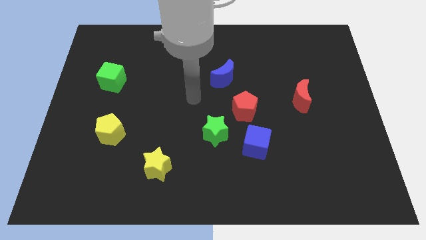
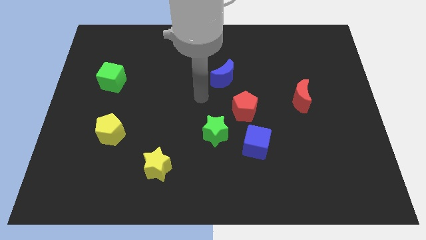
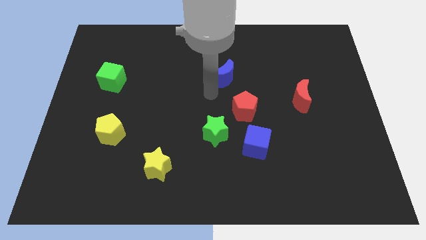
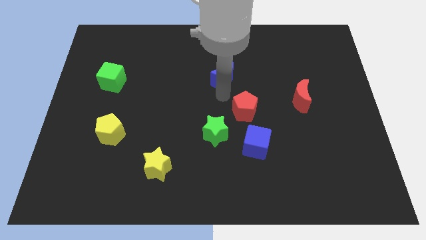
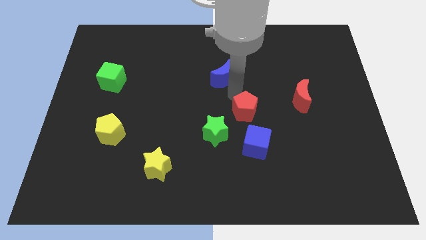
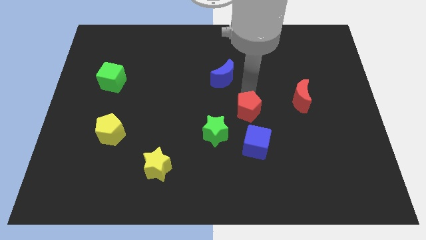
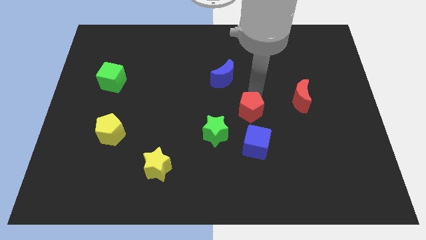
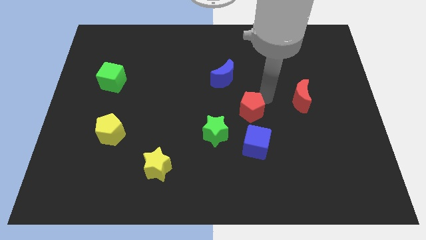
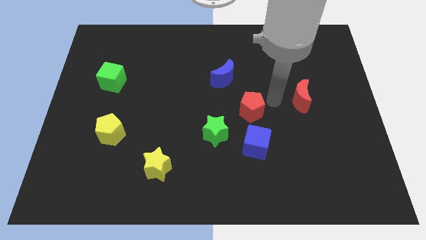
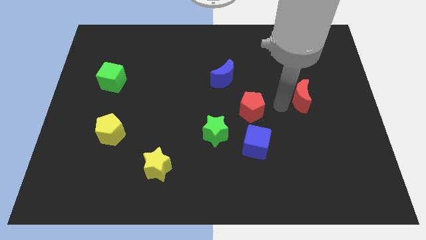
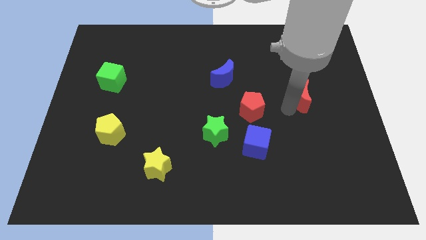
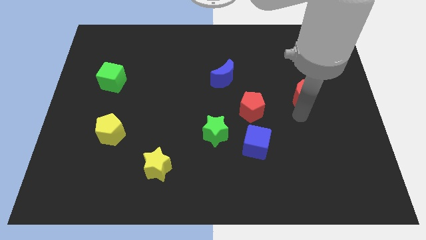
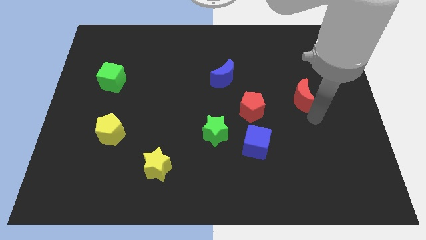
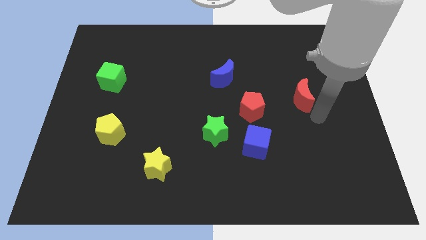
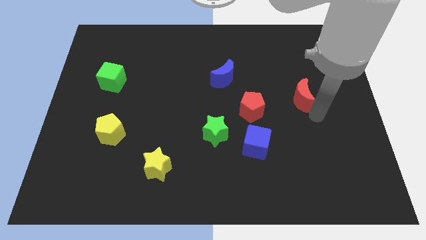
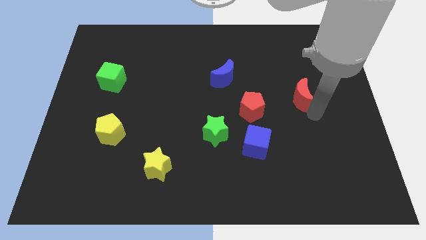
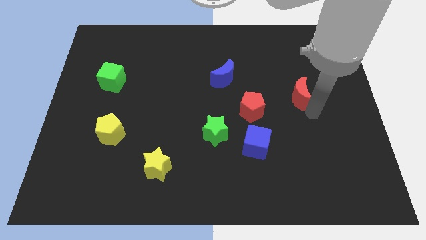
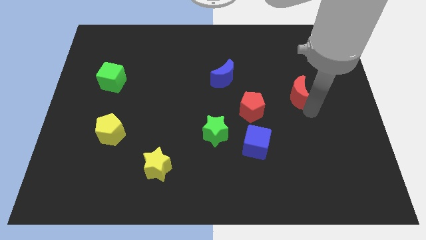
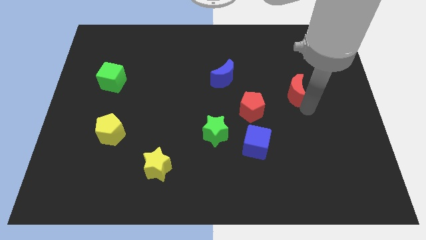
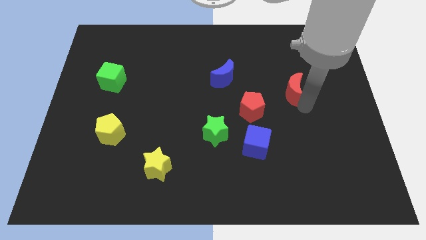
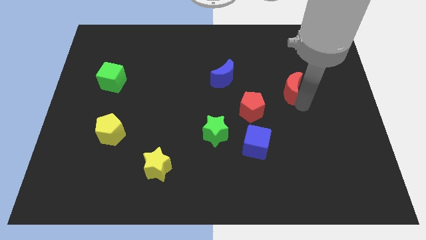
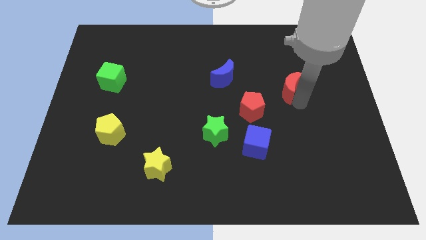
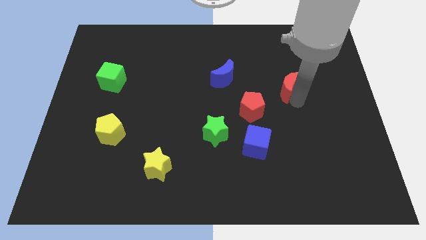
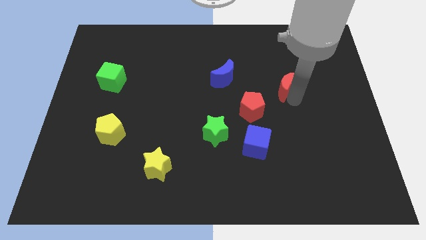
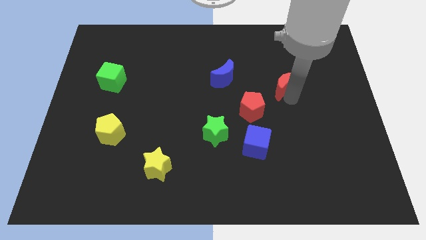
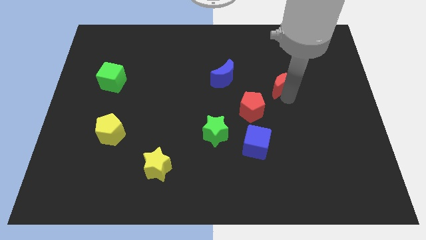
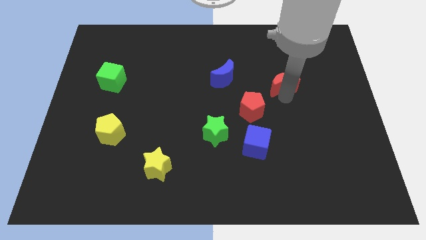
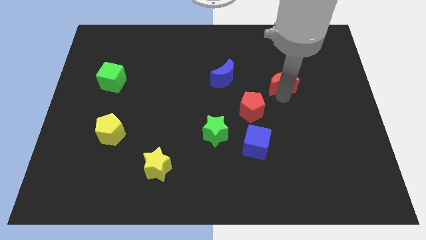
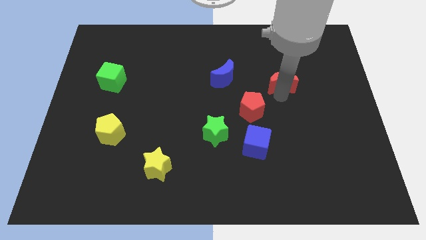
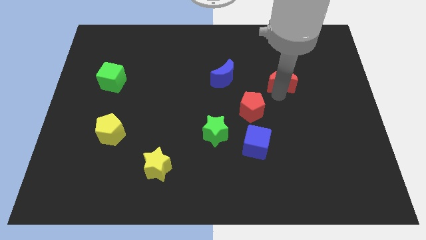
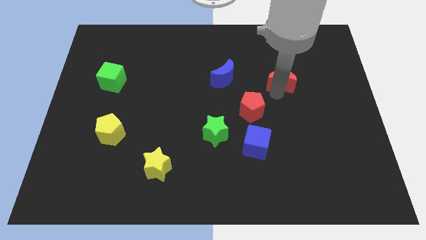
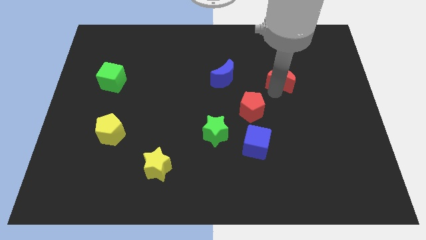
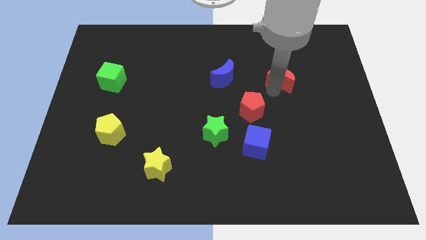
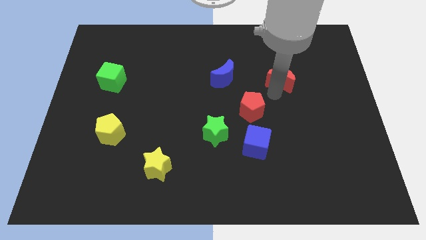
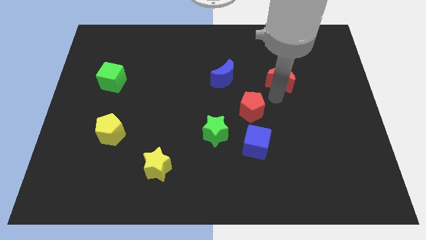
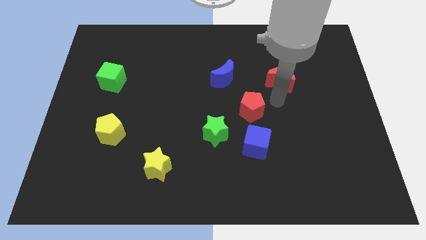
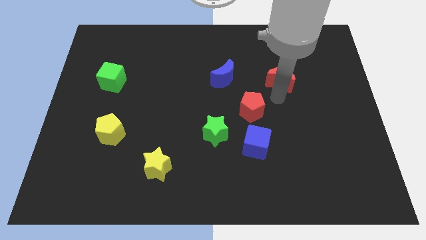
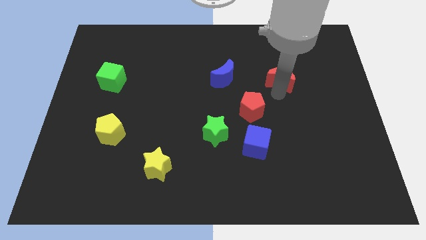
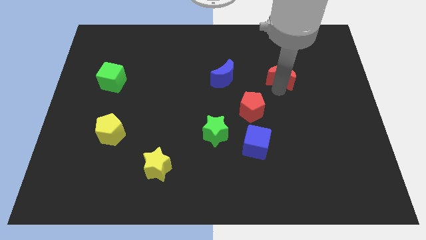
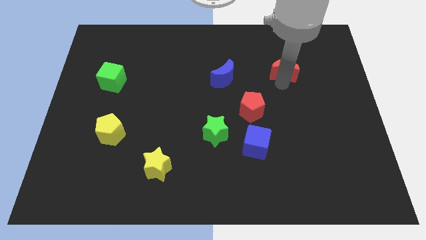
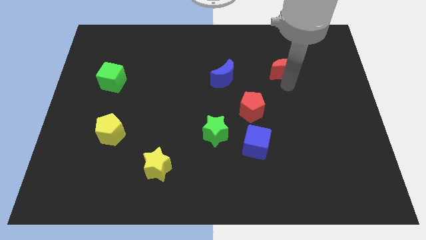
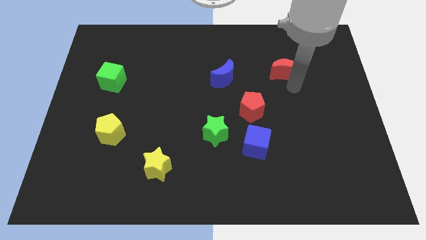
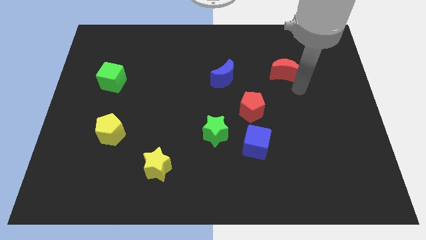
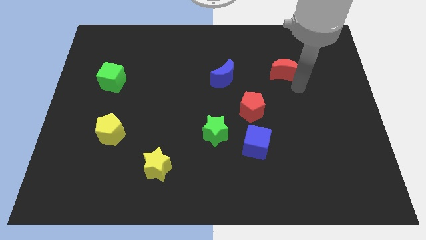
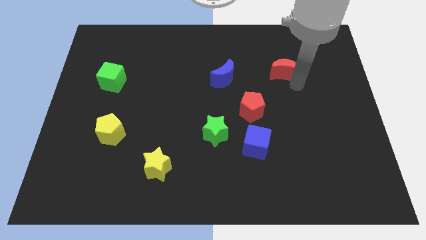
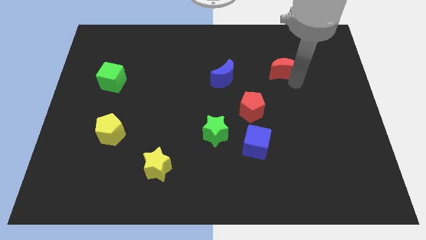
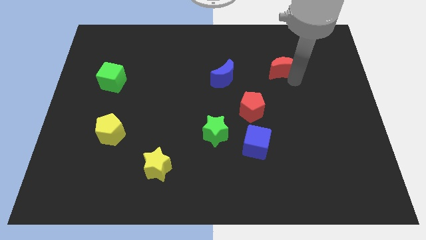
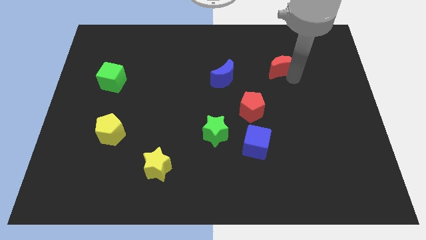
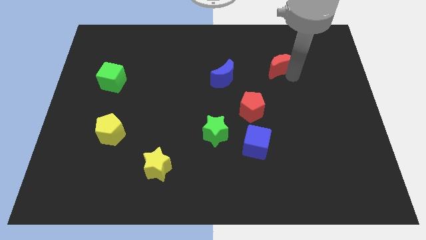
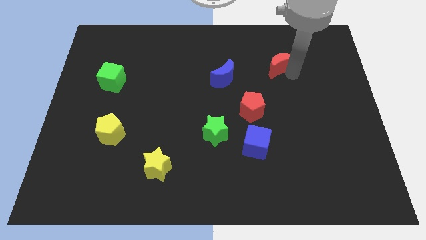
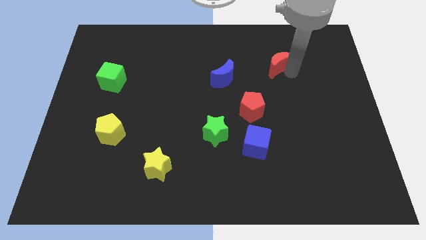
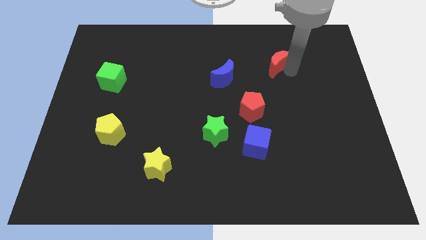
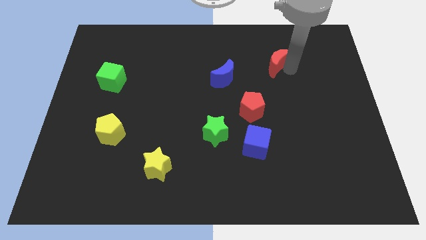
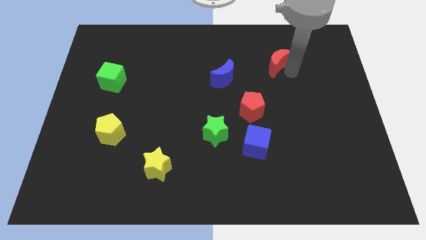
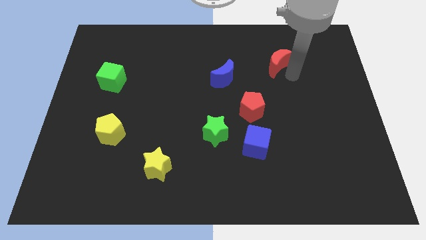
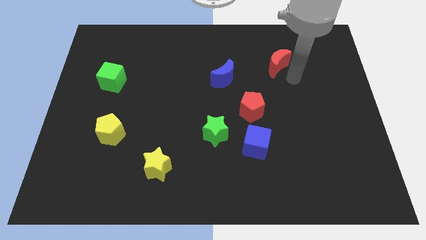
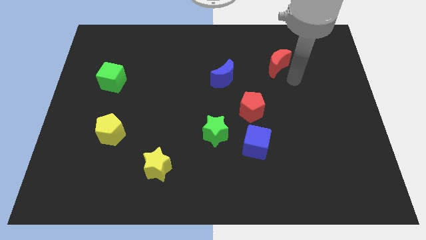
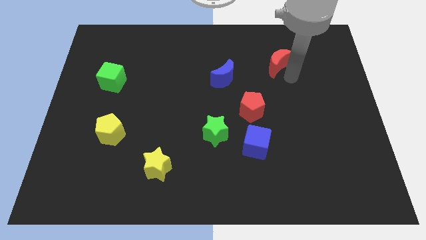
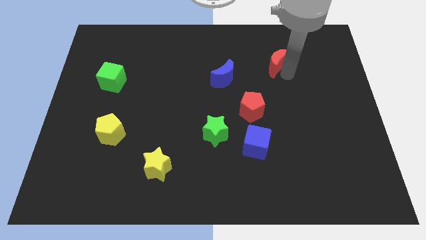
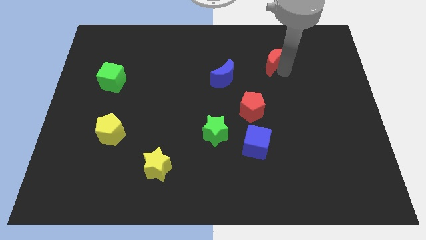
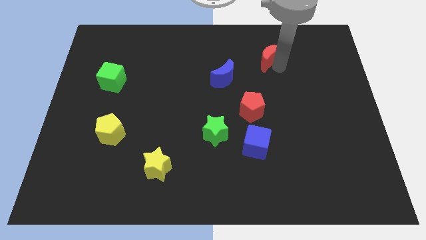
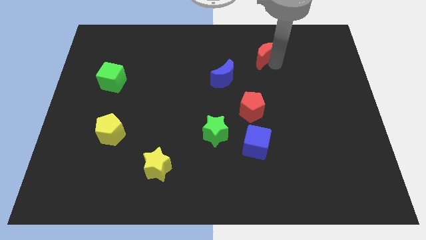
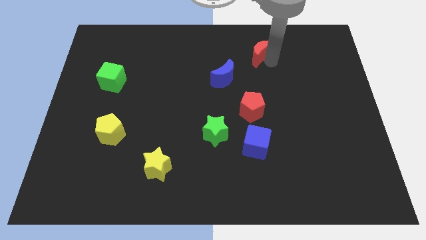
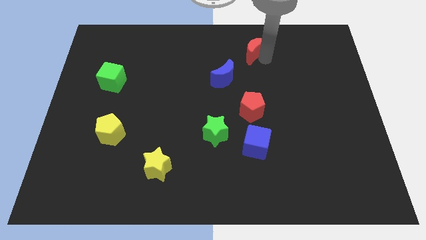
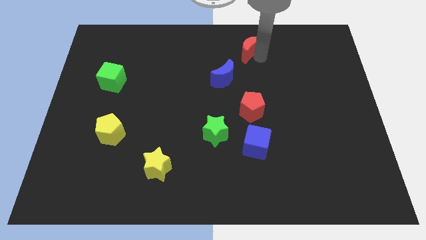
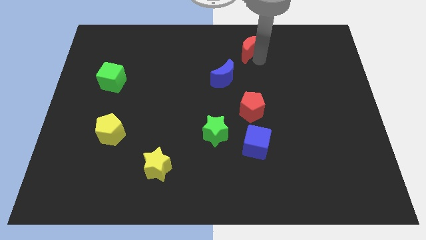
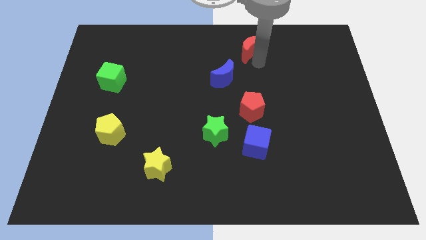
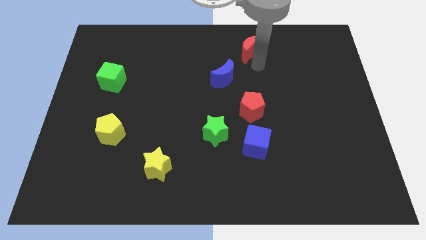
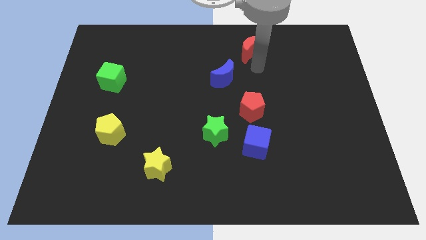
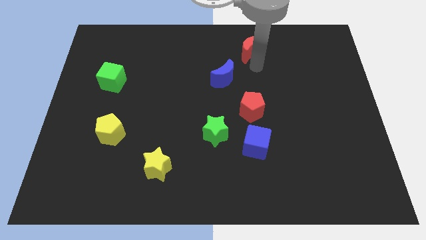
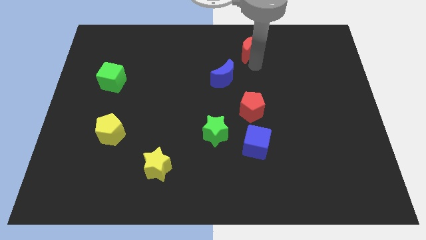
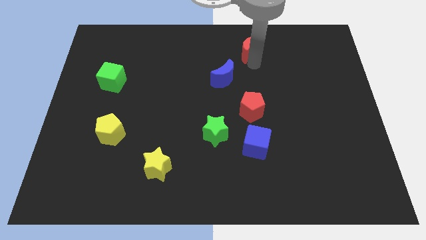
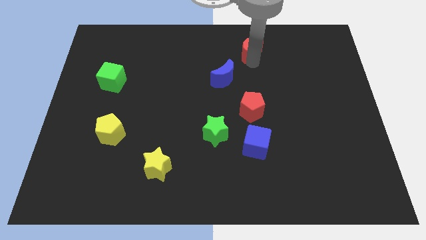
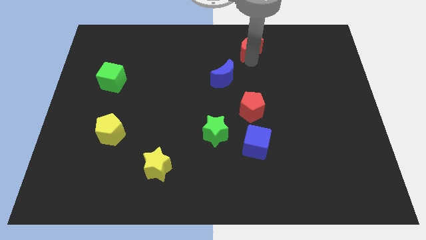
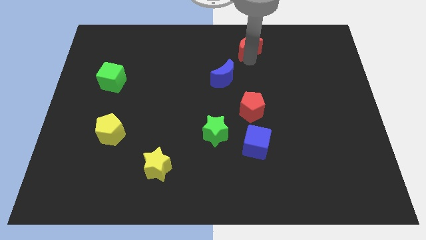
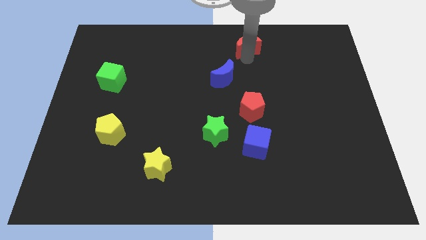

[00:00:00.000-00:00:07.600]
move the red moon to the top
